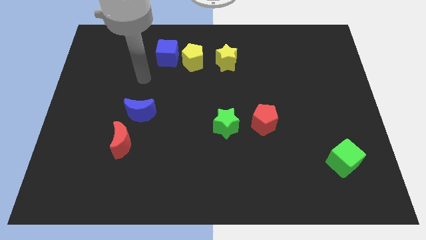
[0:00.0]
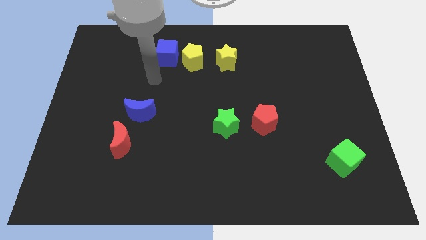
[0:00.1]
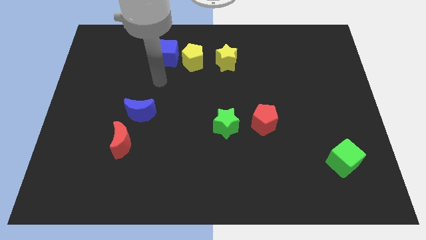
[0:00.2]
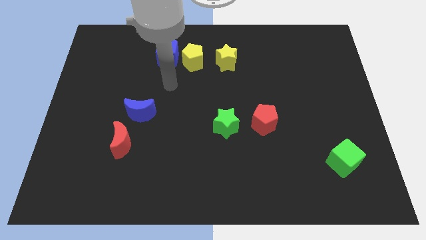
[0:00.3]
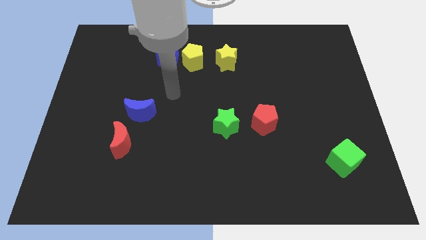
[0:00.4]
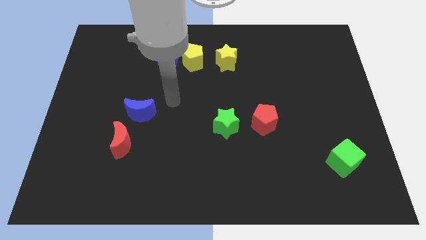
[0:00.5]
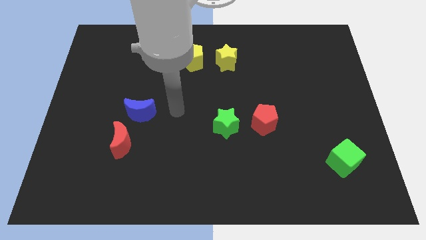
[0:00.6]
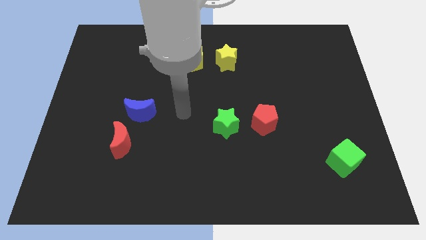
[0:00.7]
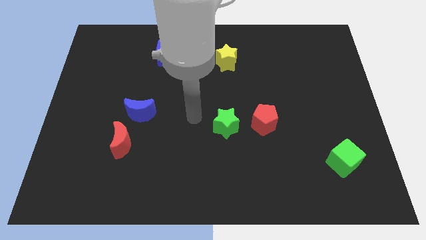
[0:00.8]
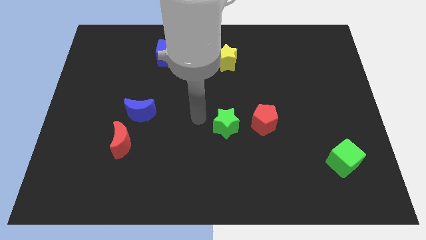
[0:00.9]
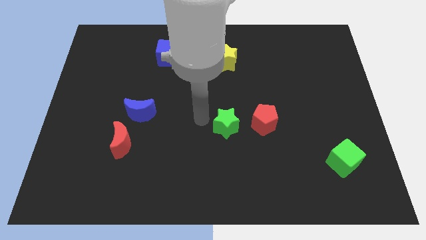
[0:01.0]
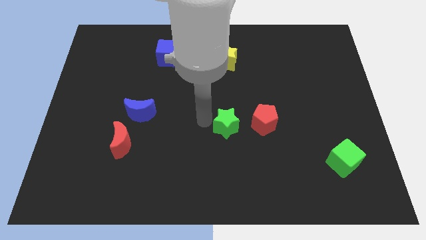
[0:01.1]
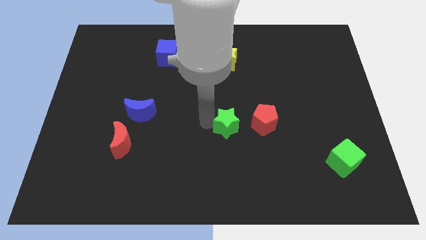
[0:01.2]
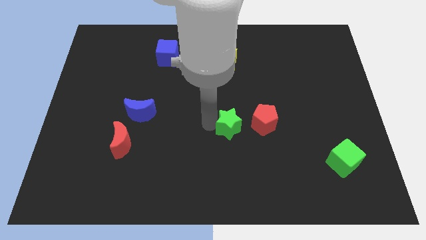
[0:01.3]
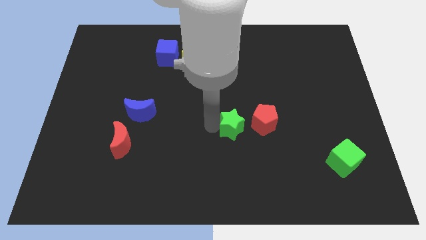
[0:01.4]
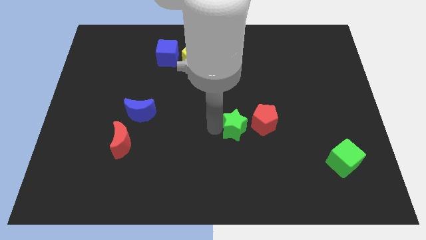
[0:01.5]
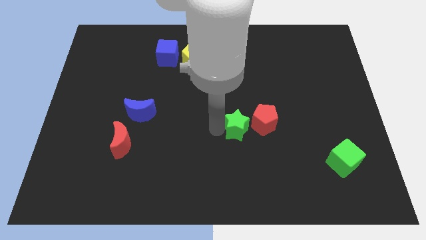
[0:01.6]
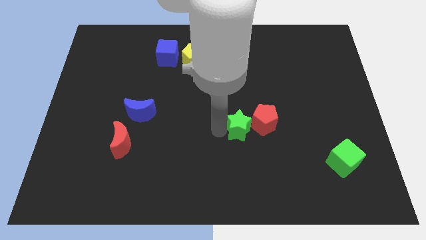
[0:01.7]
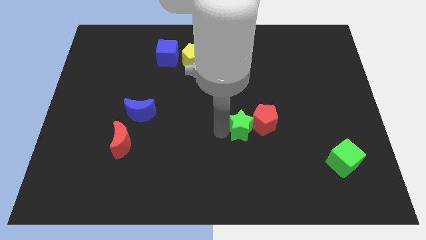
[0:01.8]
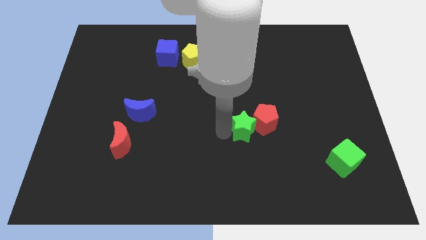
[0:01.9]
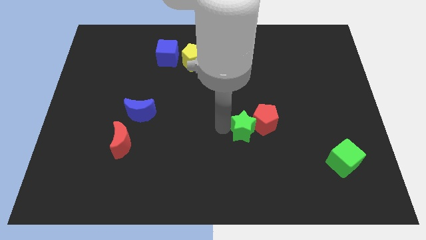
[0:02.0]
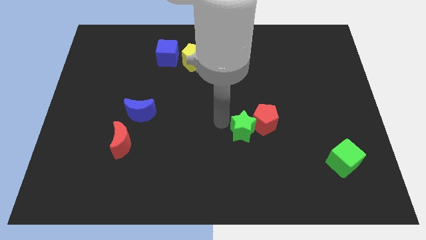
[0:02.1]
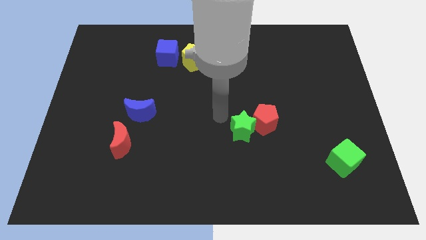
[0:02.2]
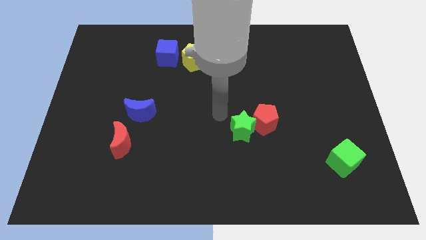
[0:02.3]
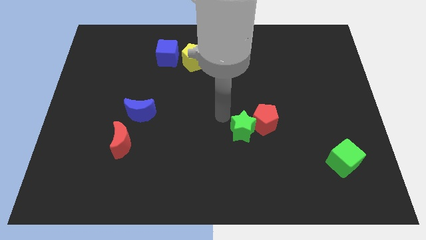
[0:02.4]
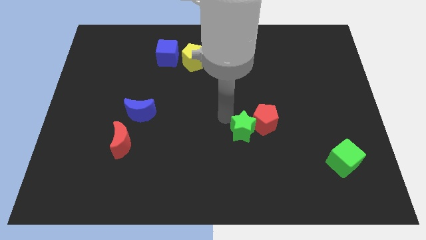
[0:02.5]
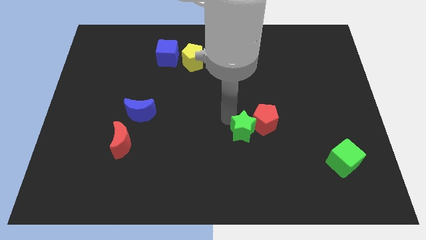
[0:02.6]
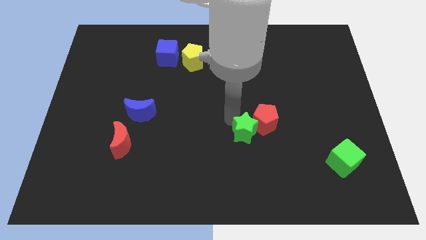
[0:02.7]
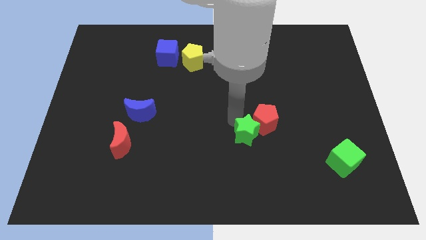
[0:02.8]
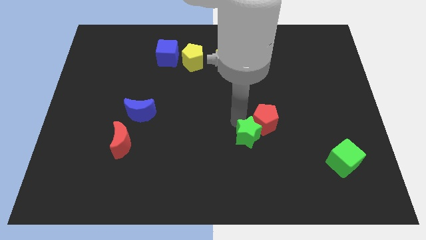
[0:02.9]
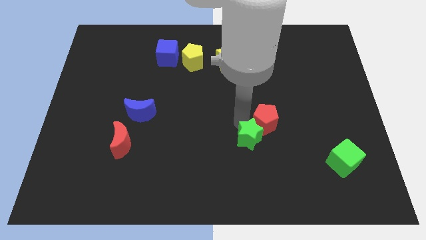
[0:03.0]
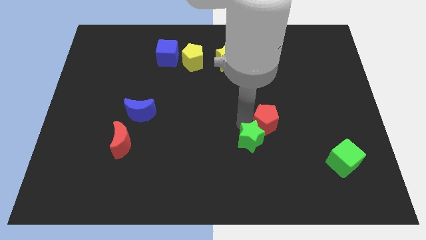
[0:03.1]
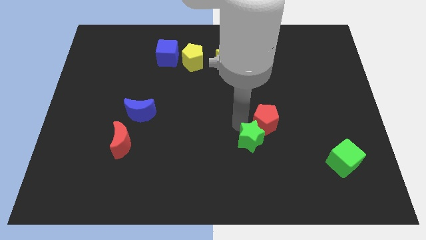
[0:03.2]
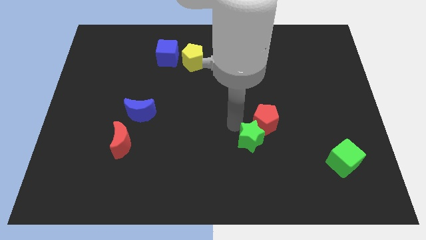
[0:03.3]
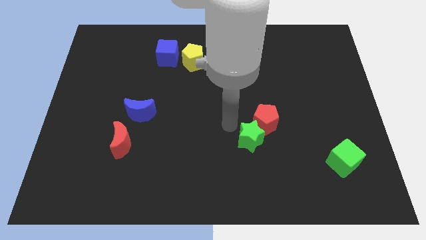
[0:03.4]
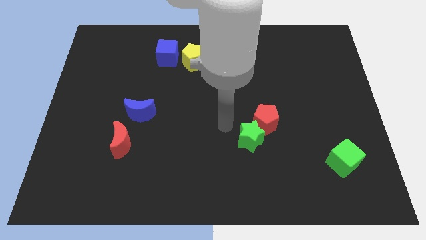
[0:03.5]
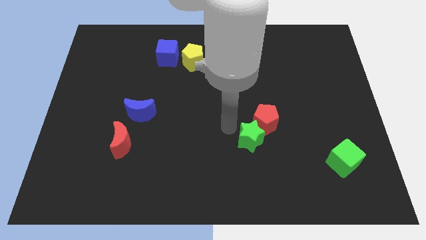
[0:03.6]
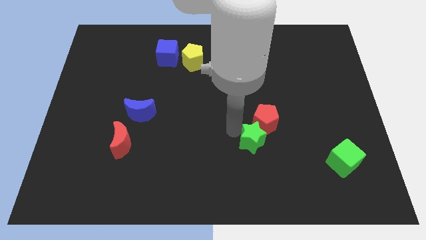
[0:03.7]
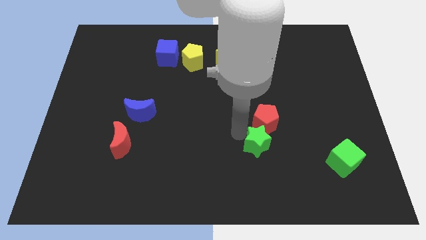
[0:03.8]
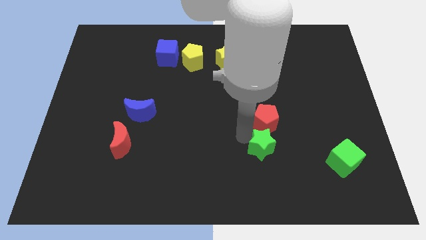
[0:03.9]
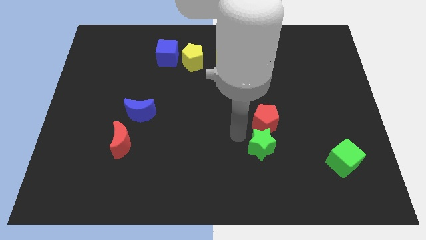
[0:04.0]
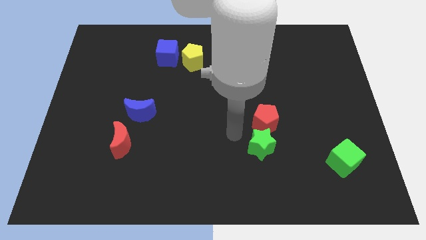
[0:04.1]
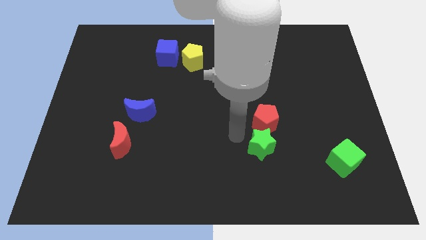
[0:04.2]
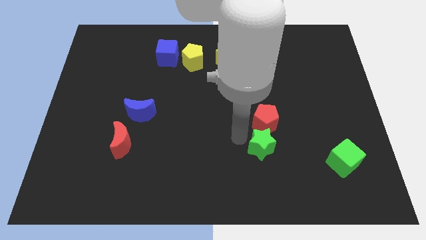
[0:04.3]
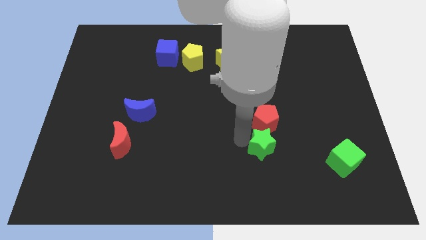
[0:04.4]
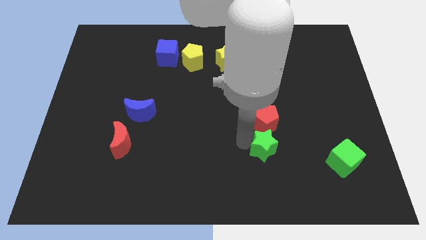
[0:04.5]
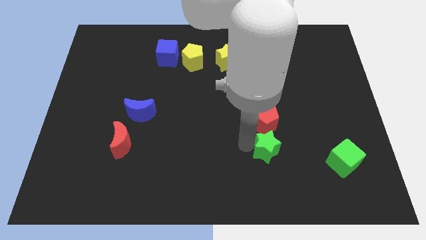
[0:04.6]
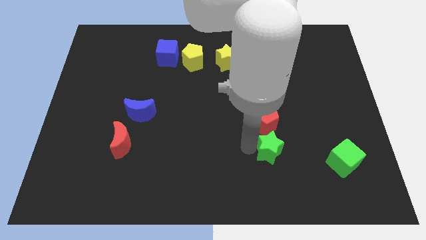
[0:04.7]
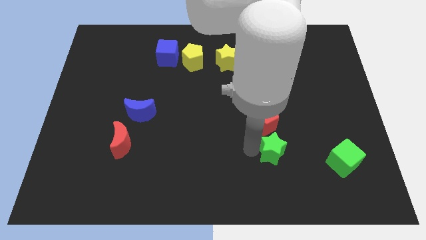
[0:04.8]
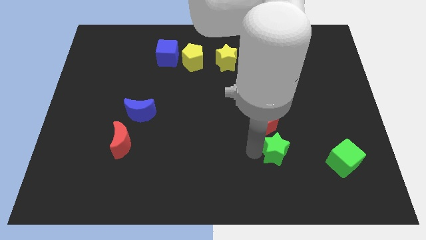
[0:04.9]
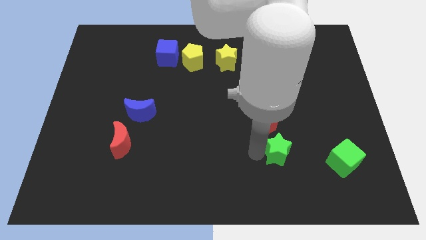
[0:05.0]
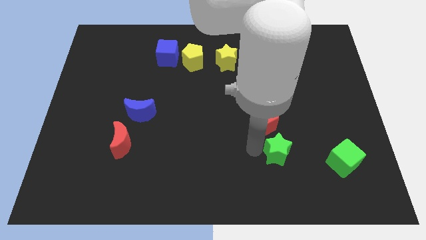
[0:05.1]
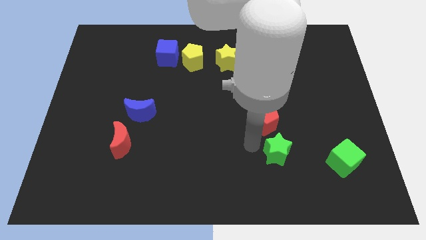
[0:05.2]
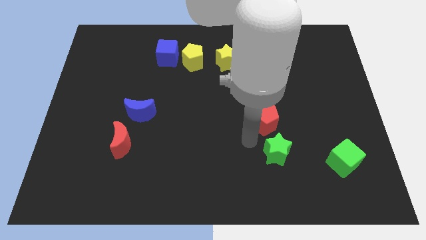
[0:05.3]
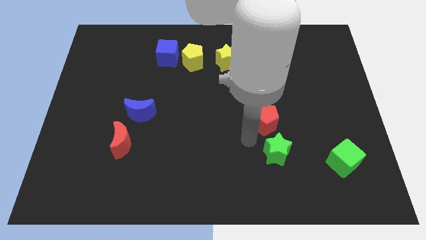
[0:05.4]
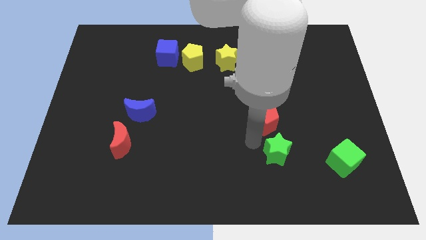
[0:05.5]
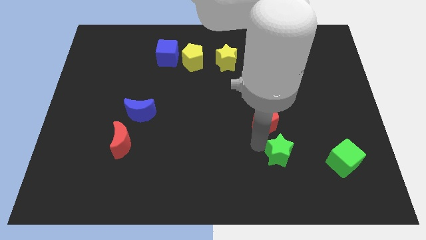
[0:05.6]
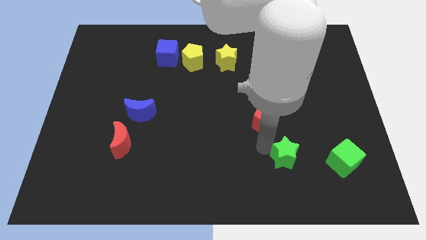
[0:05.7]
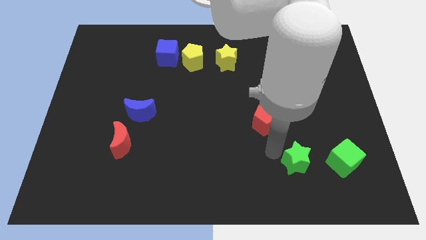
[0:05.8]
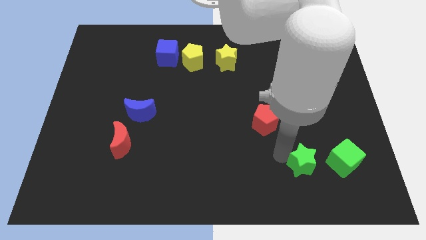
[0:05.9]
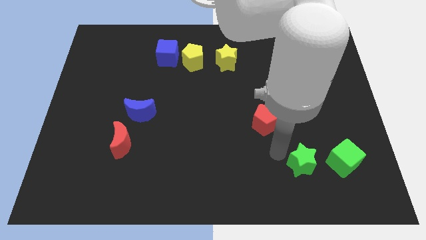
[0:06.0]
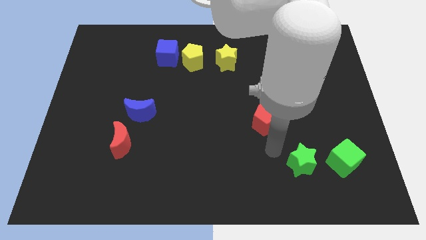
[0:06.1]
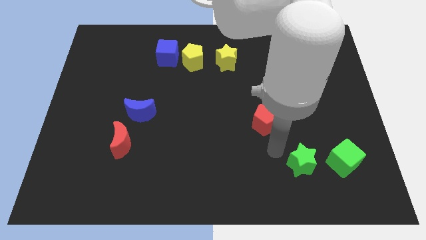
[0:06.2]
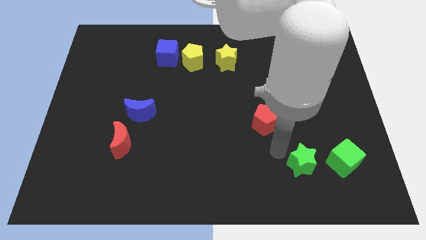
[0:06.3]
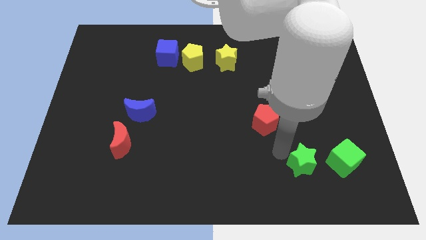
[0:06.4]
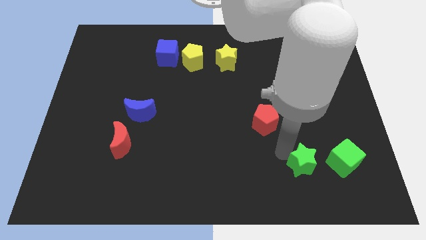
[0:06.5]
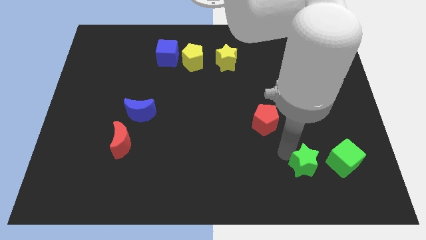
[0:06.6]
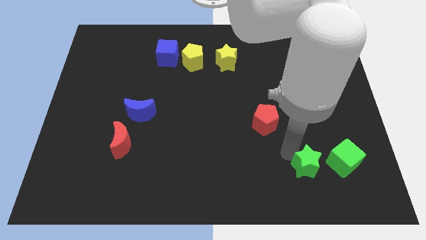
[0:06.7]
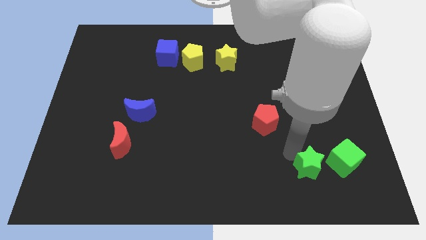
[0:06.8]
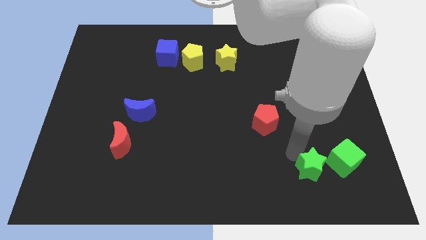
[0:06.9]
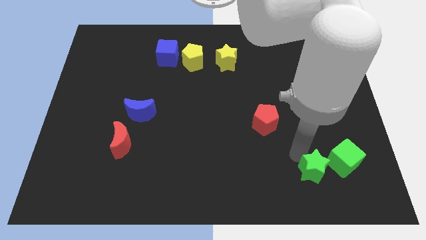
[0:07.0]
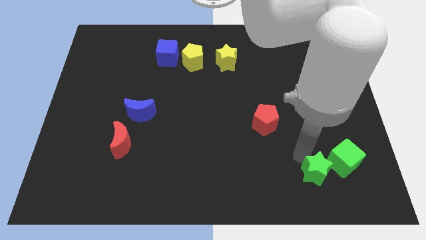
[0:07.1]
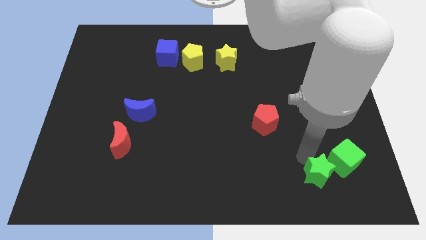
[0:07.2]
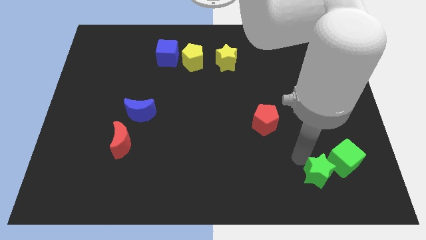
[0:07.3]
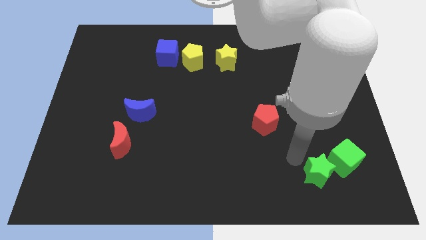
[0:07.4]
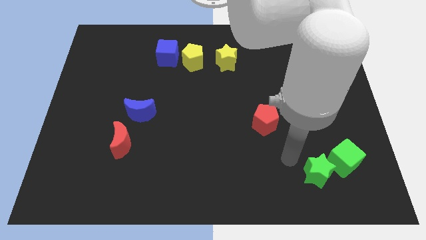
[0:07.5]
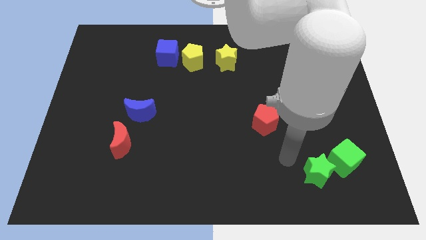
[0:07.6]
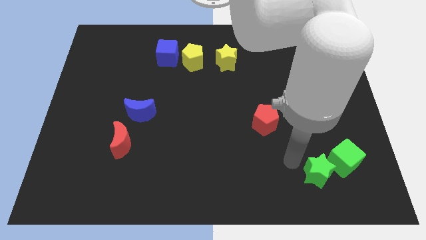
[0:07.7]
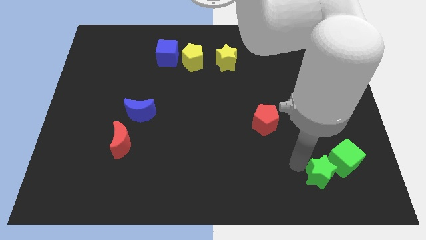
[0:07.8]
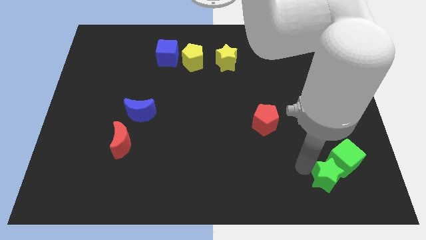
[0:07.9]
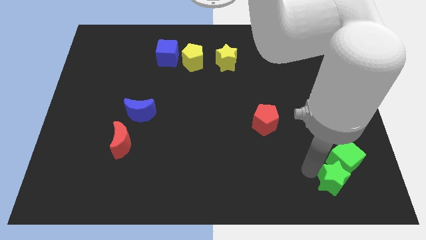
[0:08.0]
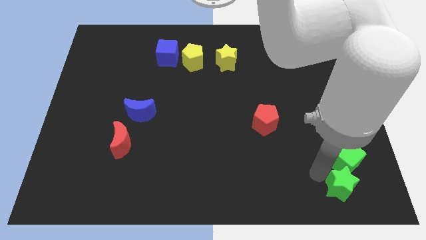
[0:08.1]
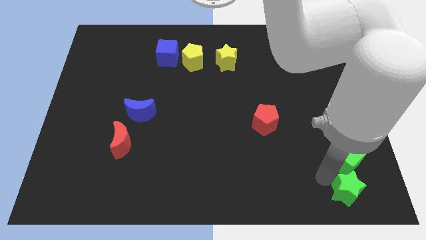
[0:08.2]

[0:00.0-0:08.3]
push the green star to the bottom right
